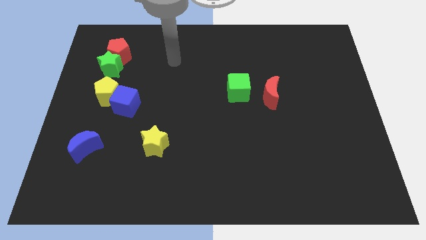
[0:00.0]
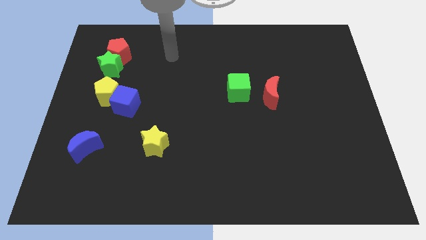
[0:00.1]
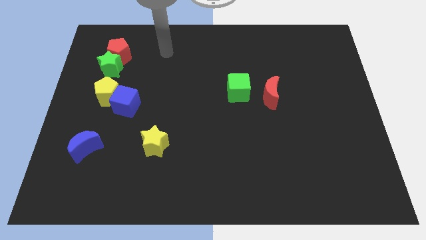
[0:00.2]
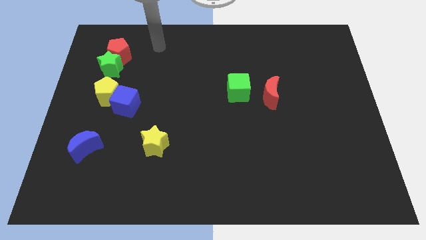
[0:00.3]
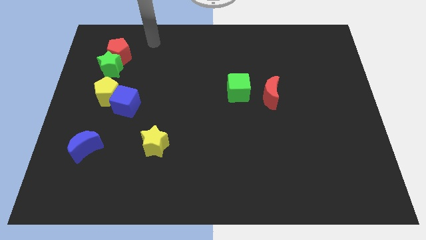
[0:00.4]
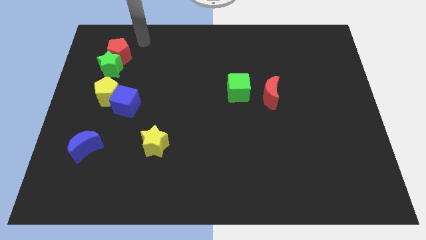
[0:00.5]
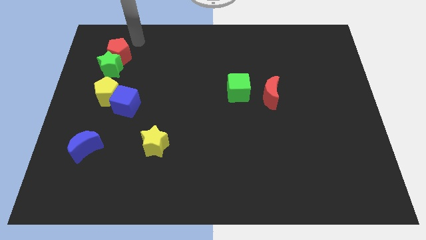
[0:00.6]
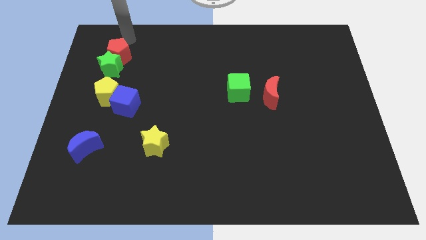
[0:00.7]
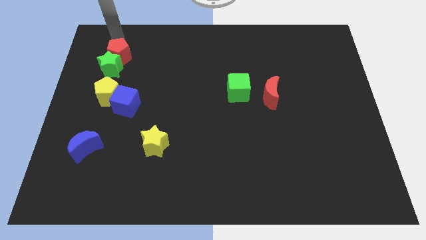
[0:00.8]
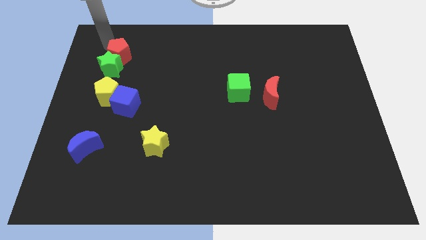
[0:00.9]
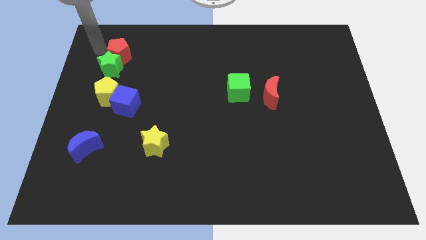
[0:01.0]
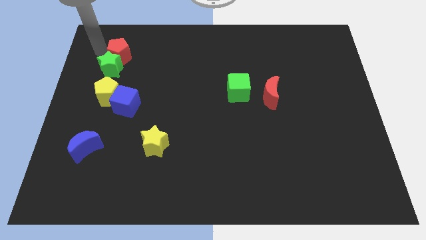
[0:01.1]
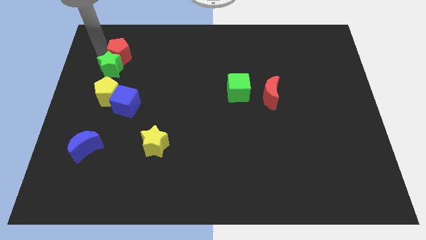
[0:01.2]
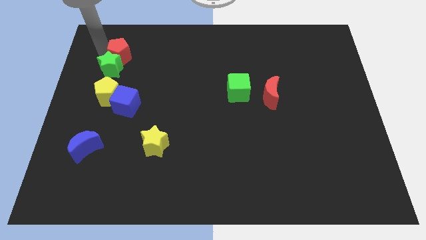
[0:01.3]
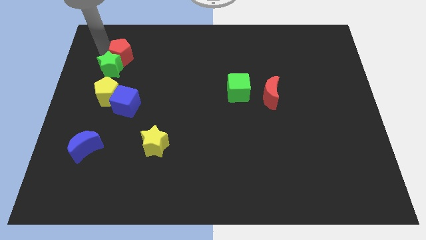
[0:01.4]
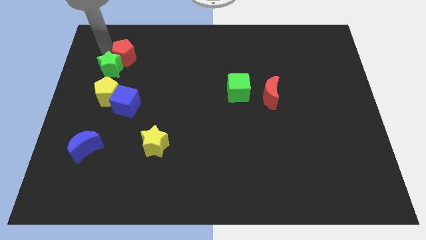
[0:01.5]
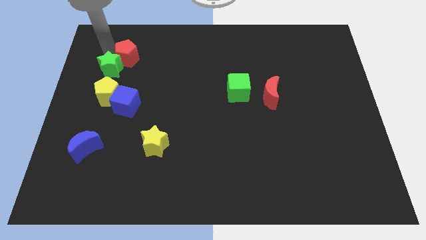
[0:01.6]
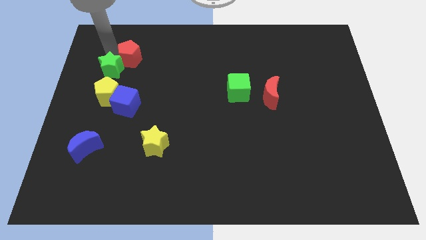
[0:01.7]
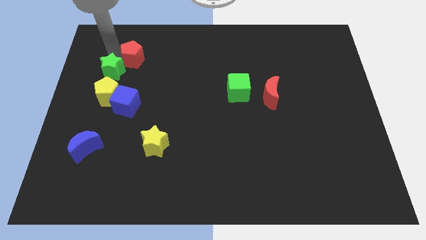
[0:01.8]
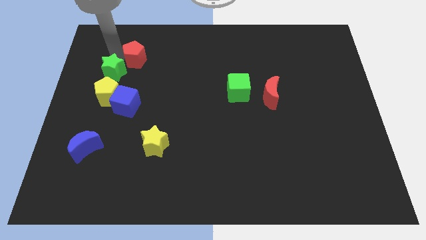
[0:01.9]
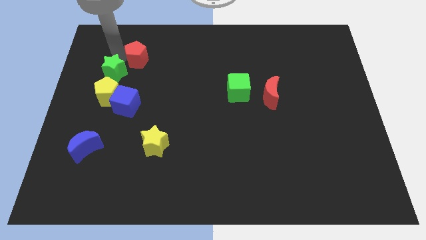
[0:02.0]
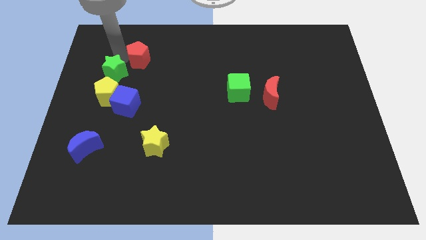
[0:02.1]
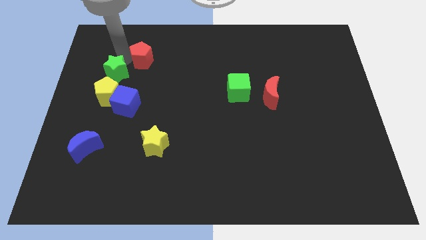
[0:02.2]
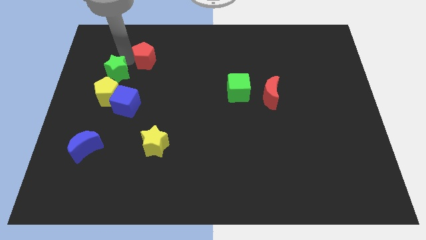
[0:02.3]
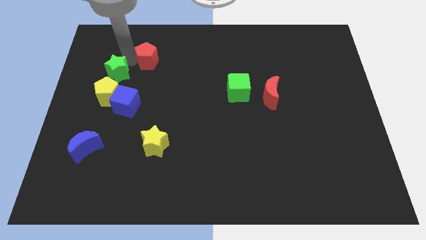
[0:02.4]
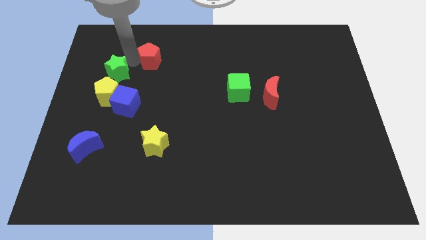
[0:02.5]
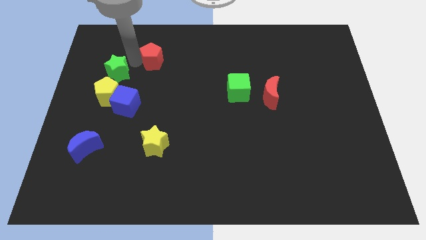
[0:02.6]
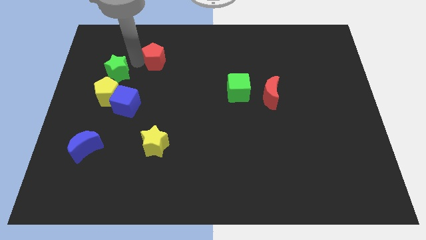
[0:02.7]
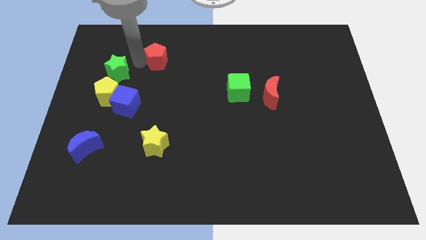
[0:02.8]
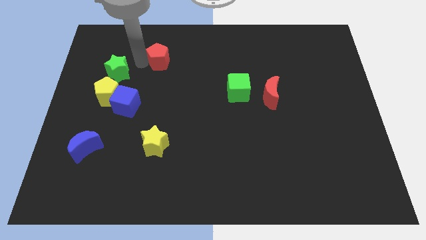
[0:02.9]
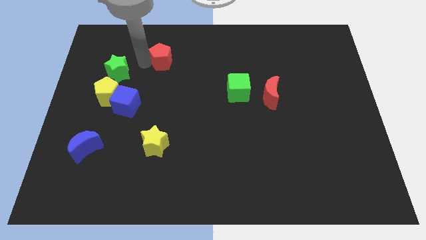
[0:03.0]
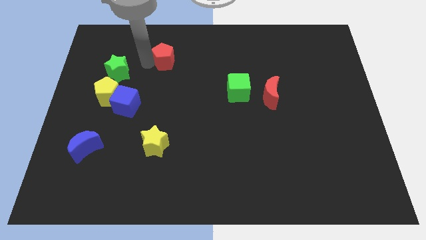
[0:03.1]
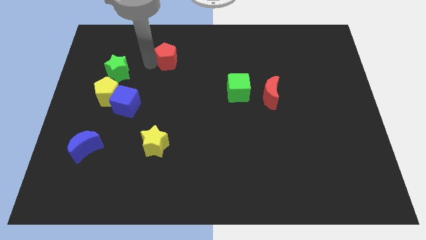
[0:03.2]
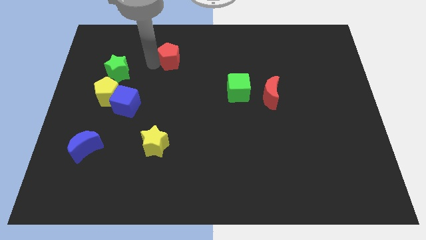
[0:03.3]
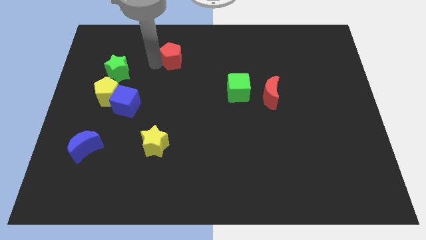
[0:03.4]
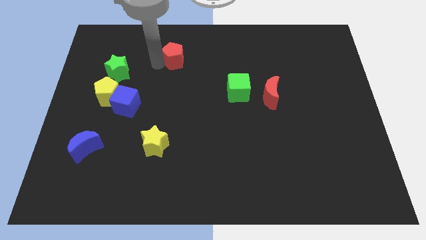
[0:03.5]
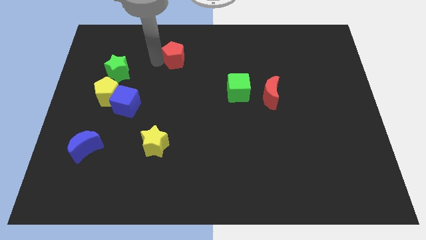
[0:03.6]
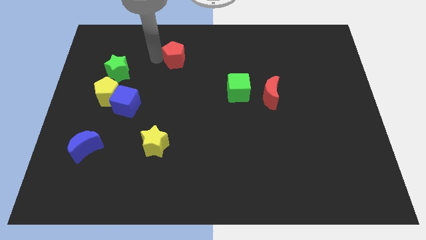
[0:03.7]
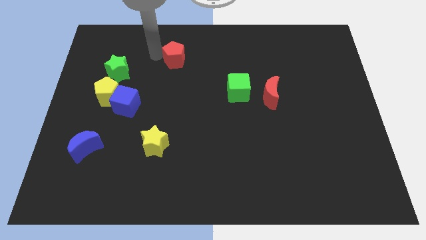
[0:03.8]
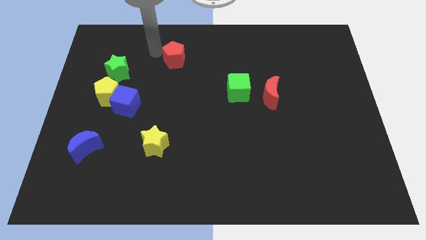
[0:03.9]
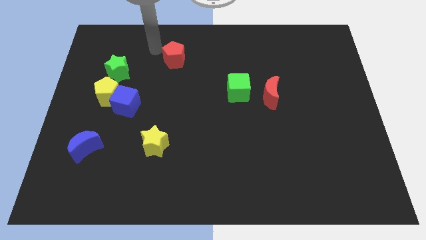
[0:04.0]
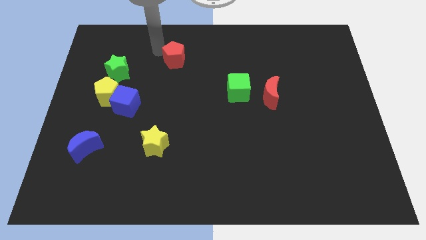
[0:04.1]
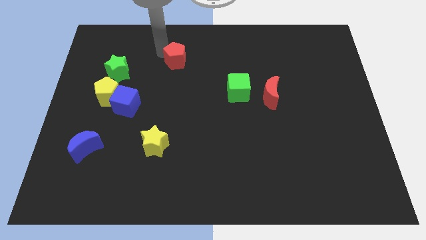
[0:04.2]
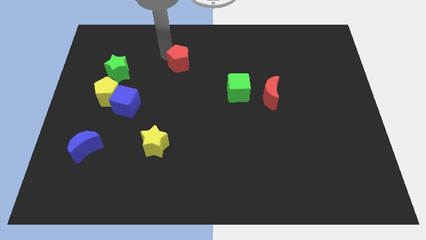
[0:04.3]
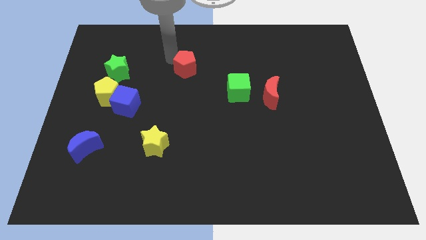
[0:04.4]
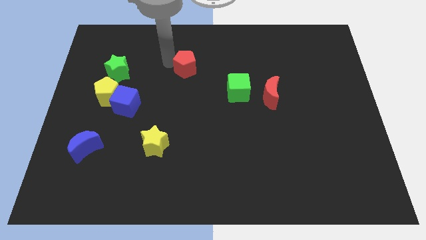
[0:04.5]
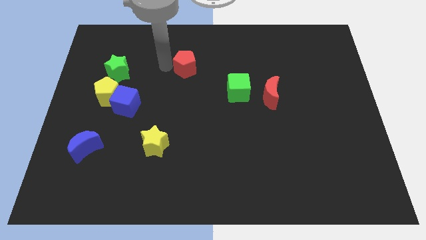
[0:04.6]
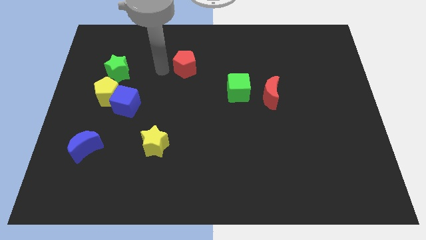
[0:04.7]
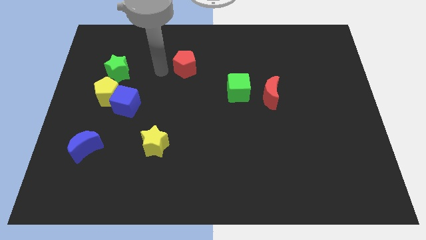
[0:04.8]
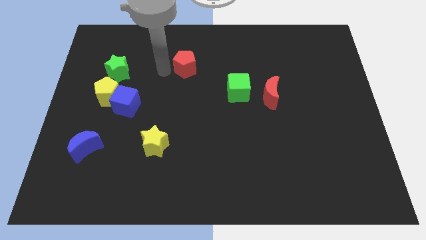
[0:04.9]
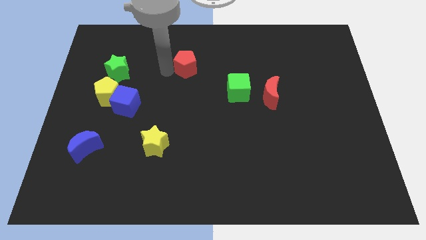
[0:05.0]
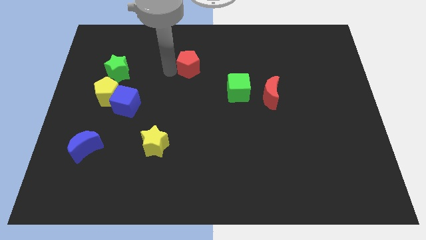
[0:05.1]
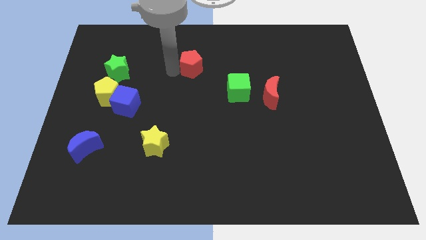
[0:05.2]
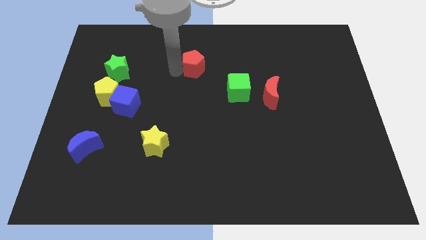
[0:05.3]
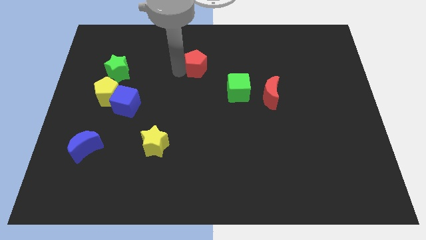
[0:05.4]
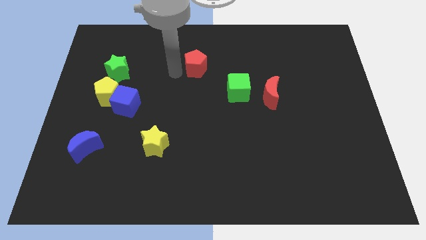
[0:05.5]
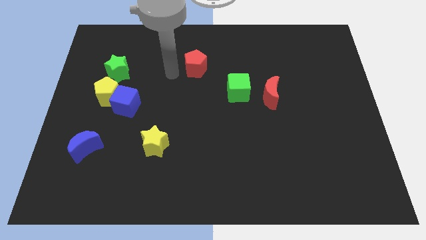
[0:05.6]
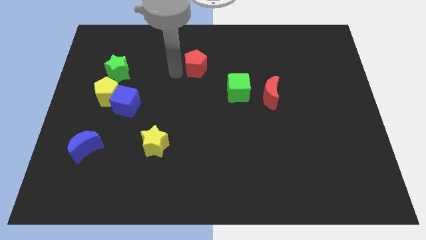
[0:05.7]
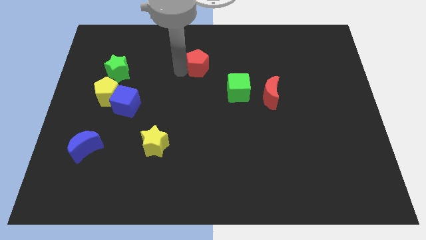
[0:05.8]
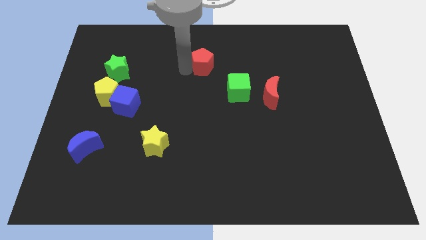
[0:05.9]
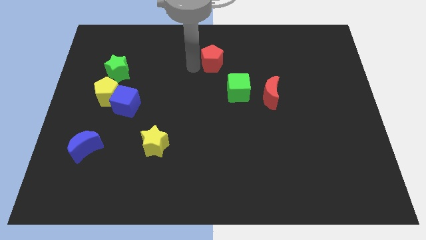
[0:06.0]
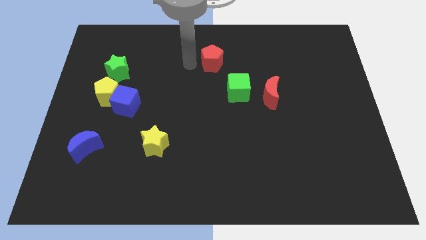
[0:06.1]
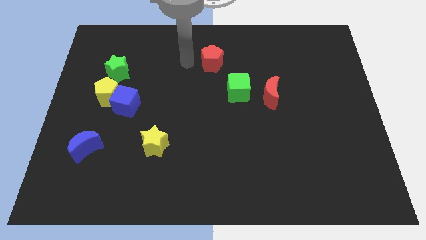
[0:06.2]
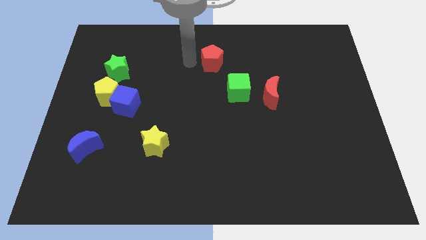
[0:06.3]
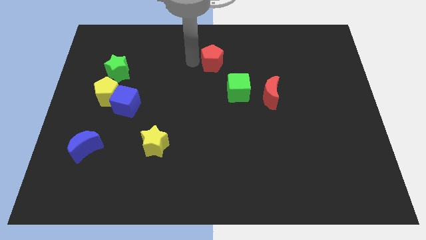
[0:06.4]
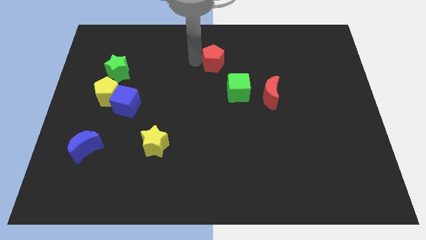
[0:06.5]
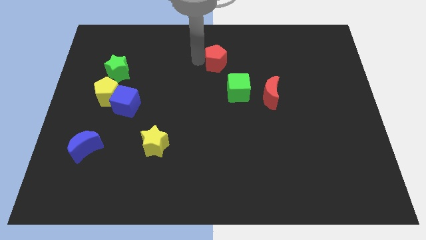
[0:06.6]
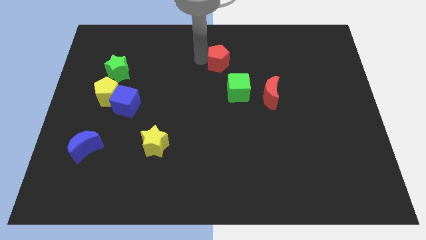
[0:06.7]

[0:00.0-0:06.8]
put the red pentagon to the top of the green cube
